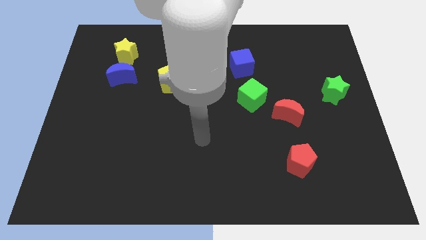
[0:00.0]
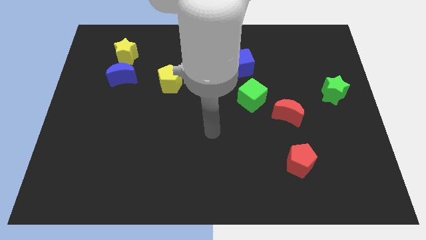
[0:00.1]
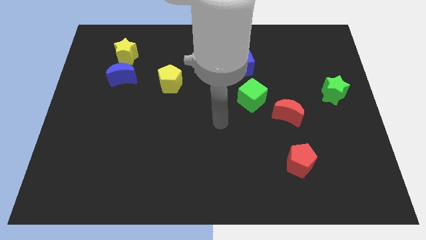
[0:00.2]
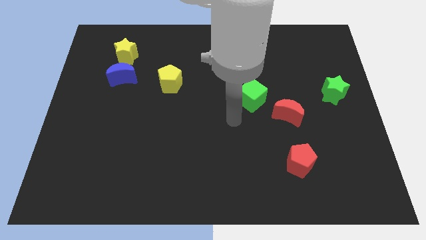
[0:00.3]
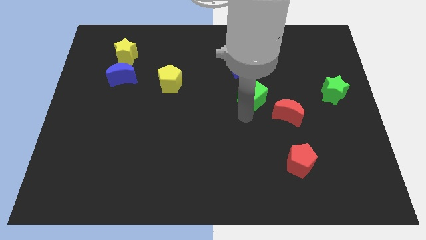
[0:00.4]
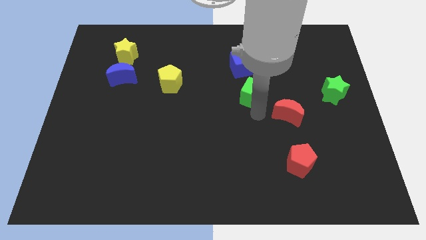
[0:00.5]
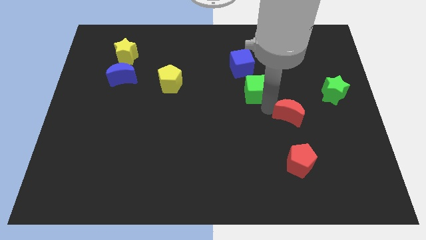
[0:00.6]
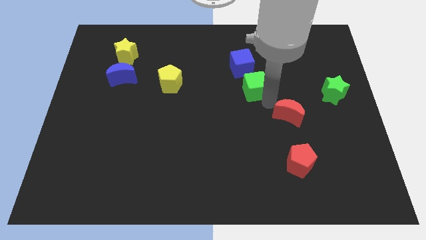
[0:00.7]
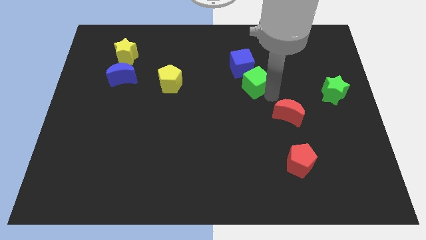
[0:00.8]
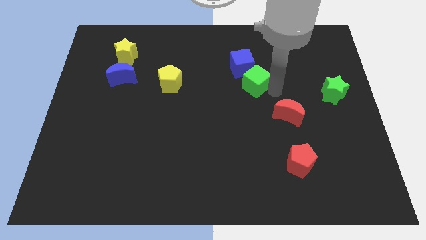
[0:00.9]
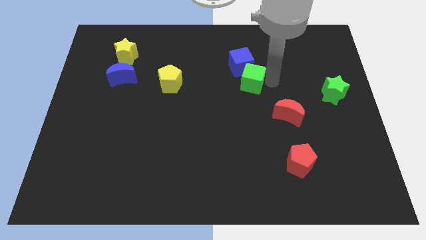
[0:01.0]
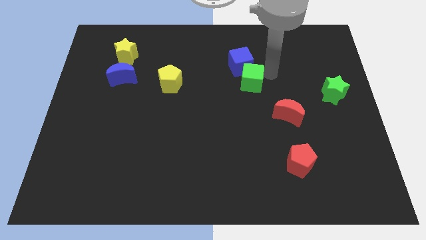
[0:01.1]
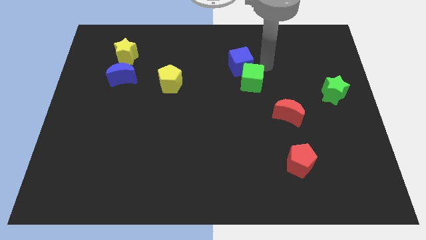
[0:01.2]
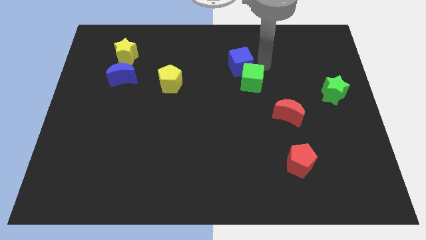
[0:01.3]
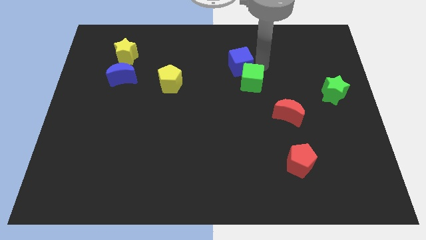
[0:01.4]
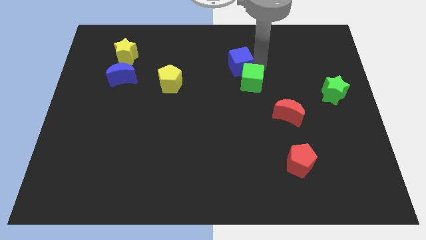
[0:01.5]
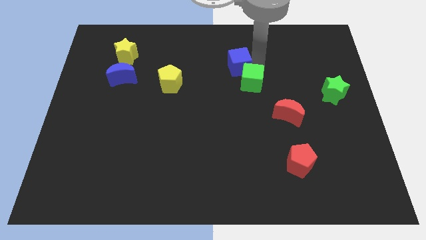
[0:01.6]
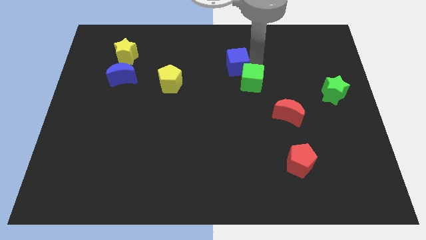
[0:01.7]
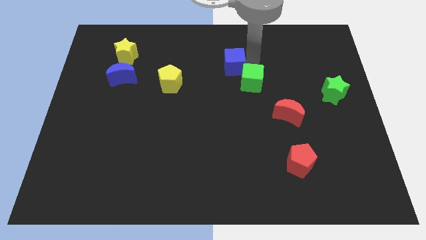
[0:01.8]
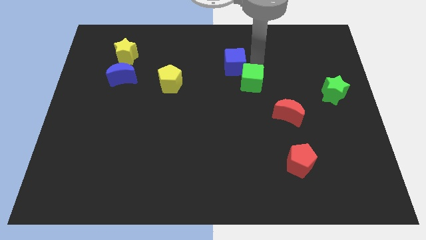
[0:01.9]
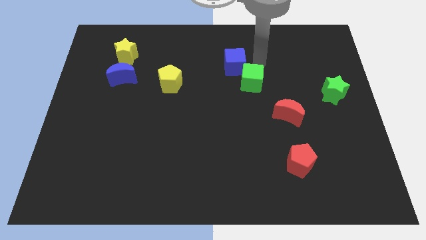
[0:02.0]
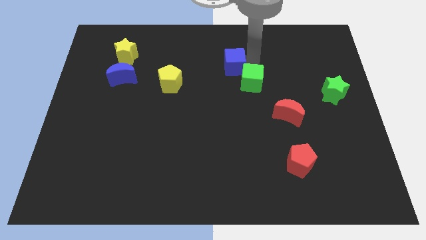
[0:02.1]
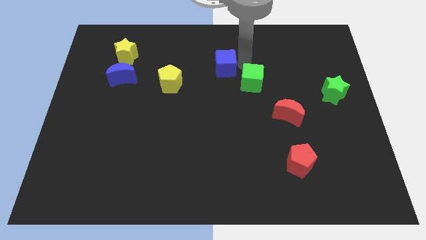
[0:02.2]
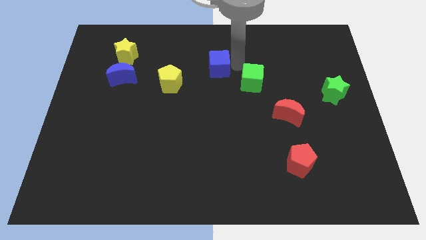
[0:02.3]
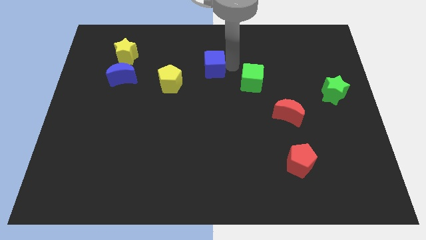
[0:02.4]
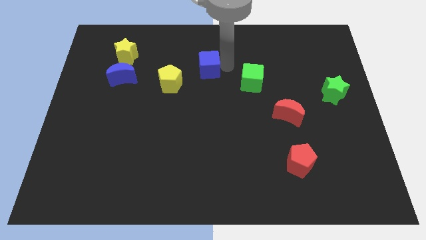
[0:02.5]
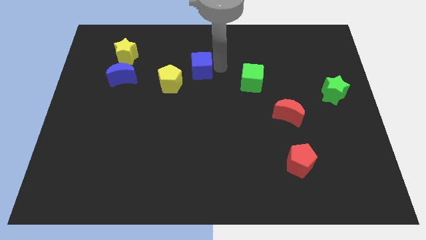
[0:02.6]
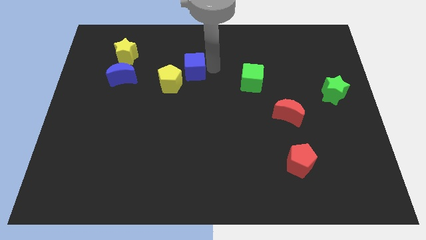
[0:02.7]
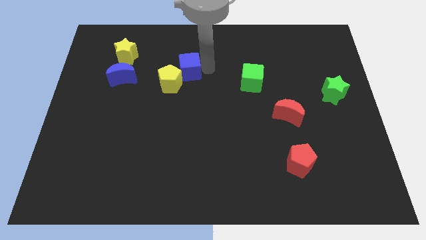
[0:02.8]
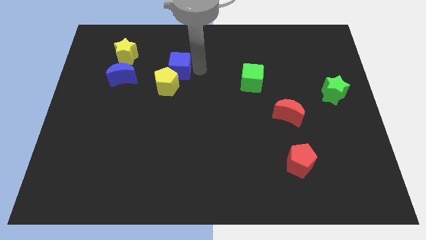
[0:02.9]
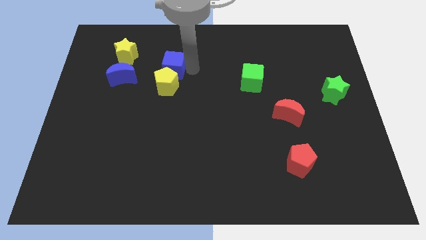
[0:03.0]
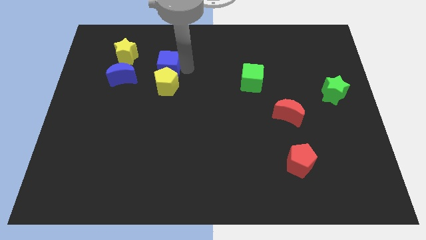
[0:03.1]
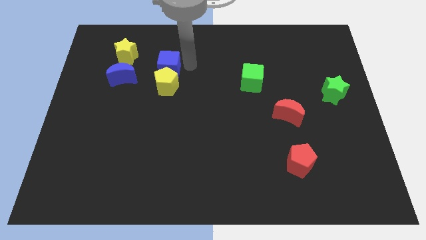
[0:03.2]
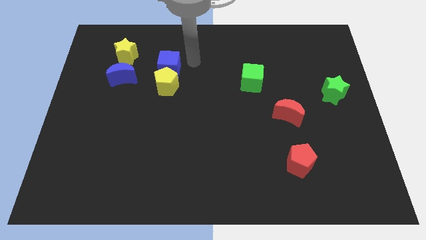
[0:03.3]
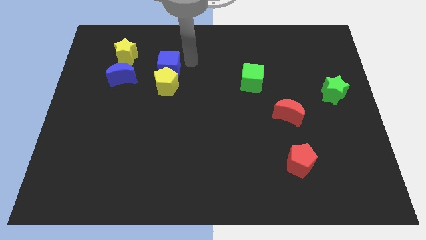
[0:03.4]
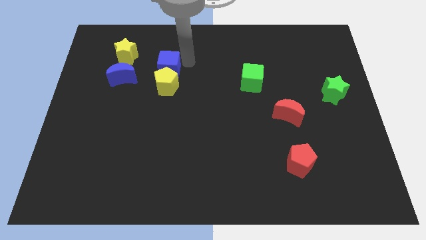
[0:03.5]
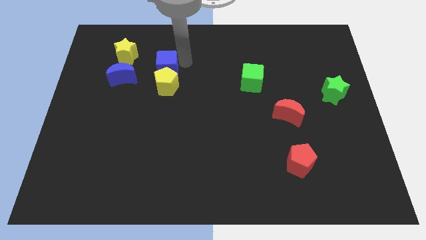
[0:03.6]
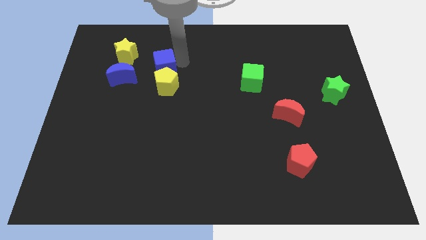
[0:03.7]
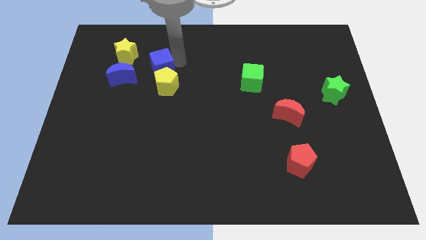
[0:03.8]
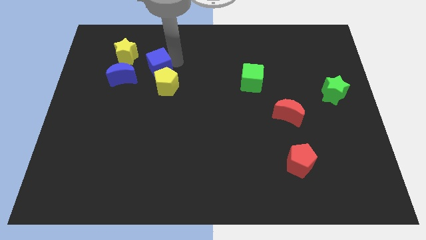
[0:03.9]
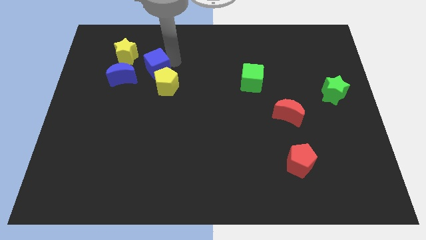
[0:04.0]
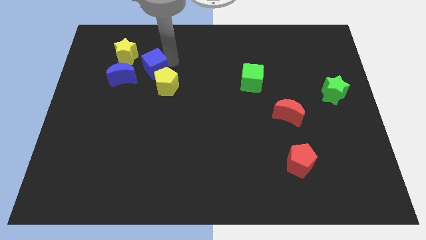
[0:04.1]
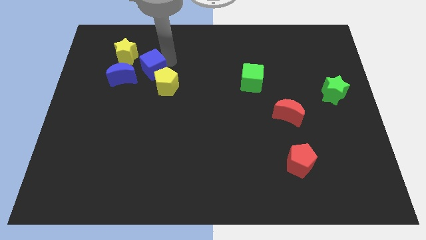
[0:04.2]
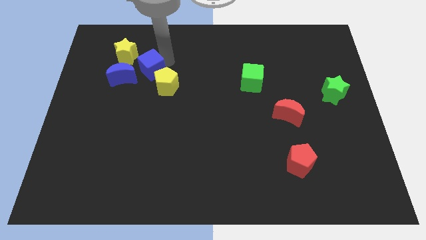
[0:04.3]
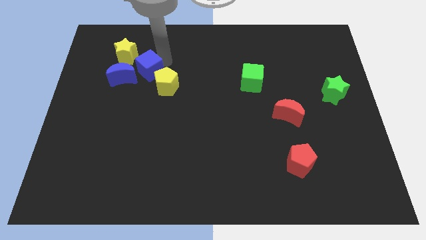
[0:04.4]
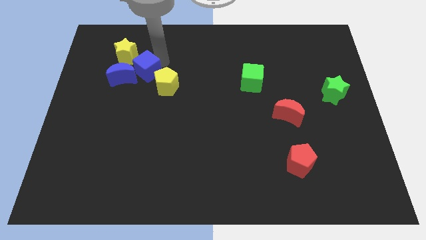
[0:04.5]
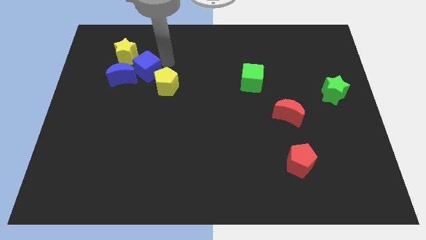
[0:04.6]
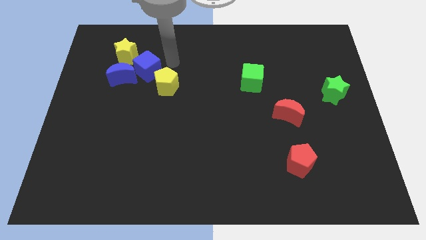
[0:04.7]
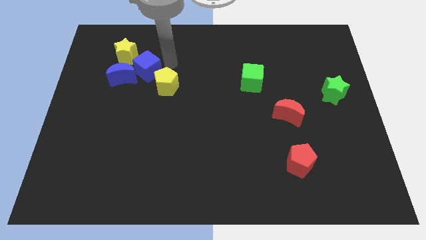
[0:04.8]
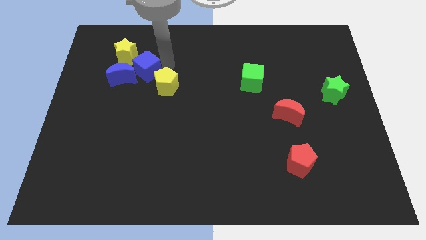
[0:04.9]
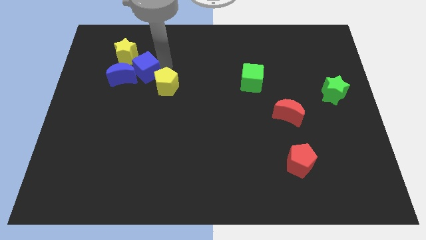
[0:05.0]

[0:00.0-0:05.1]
move the blue cube close to the blue moon

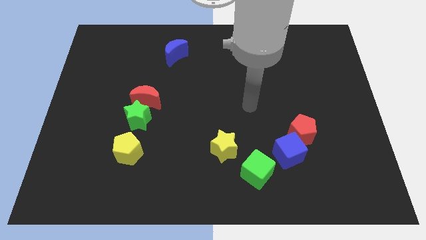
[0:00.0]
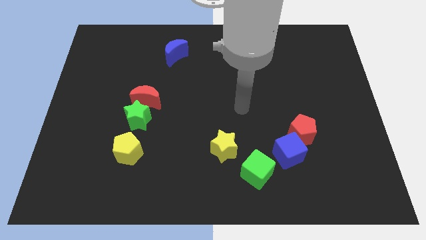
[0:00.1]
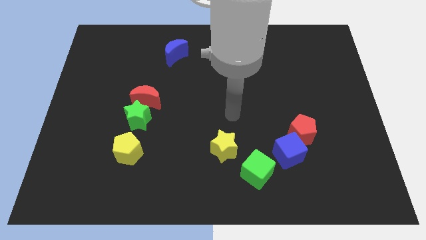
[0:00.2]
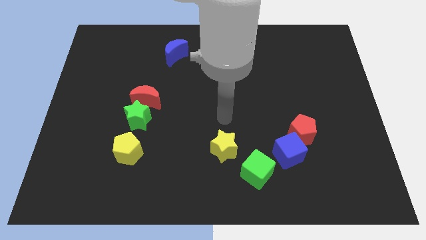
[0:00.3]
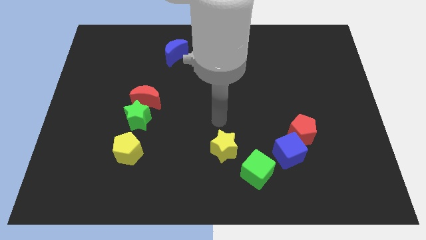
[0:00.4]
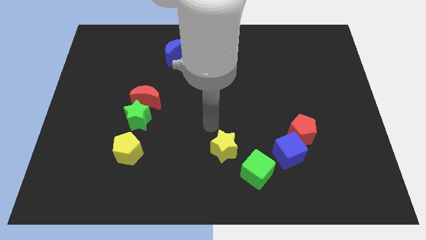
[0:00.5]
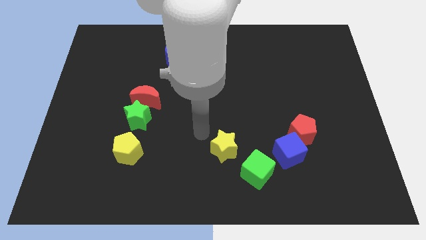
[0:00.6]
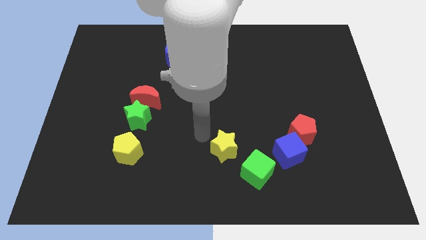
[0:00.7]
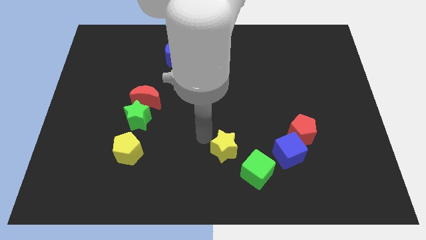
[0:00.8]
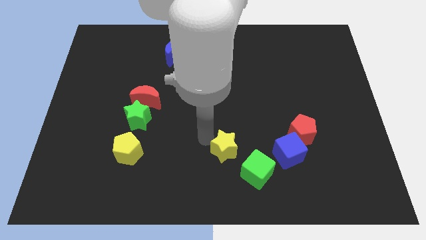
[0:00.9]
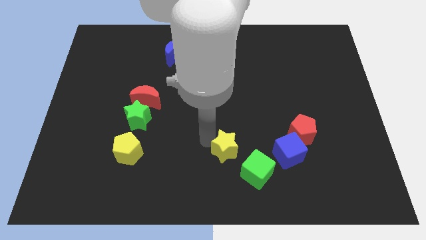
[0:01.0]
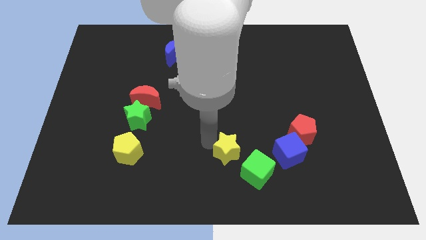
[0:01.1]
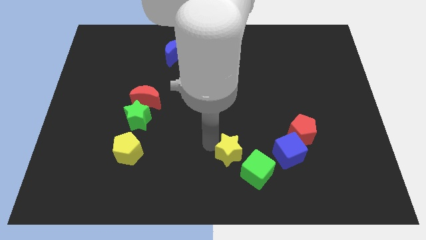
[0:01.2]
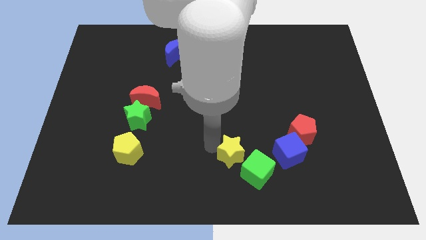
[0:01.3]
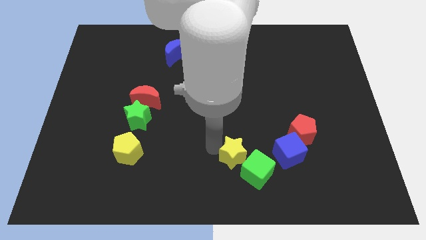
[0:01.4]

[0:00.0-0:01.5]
push the yellow star to the green cube
